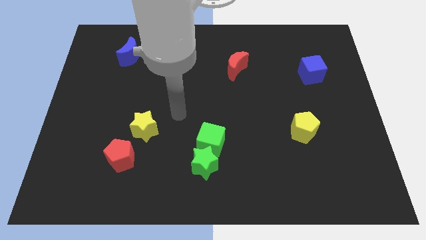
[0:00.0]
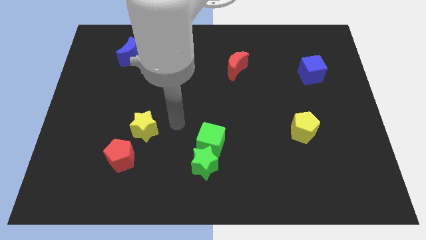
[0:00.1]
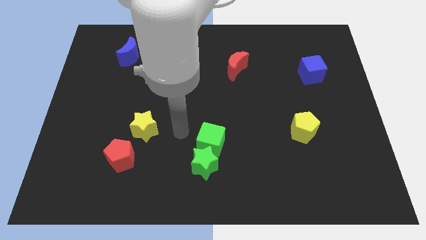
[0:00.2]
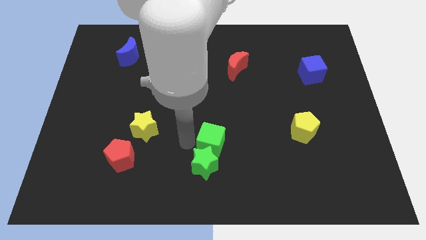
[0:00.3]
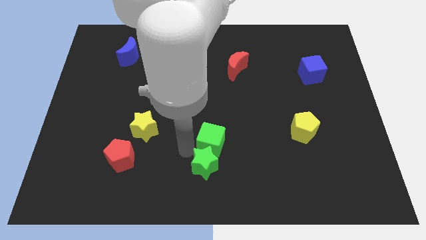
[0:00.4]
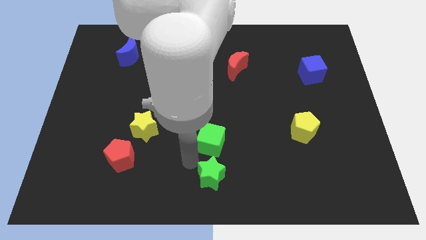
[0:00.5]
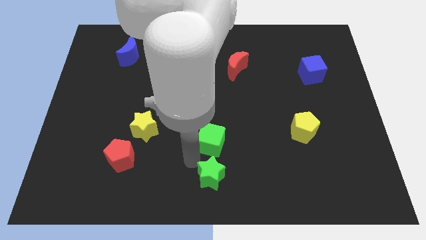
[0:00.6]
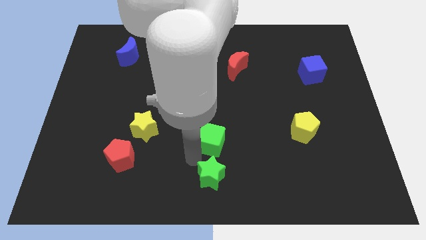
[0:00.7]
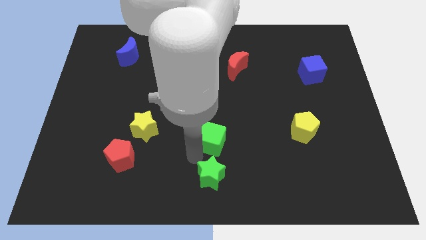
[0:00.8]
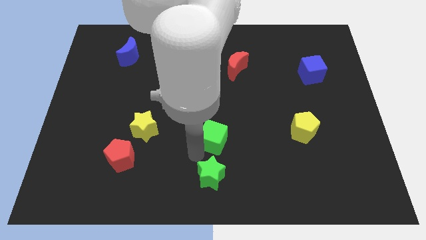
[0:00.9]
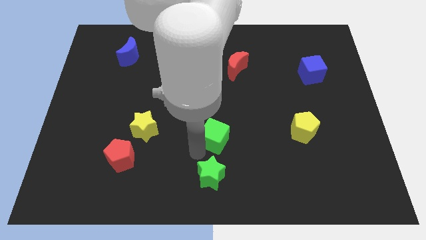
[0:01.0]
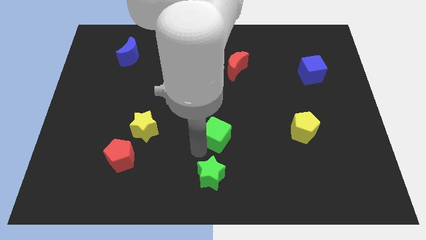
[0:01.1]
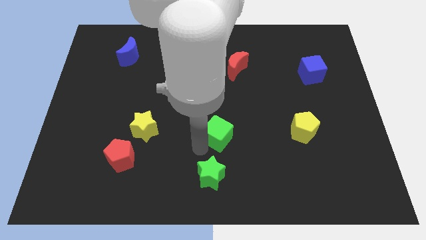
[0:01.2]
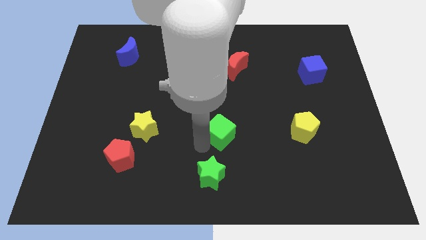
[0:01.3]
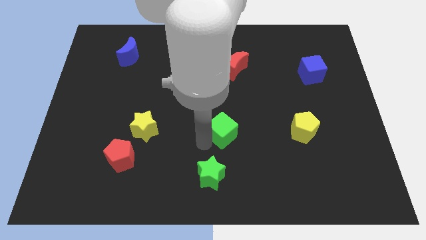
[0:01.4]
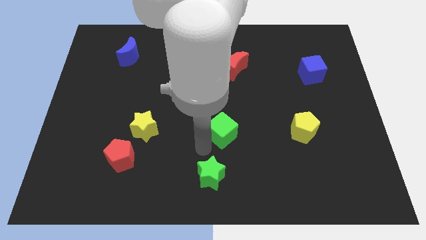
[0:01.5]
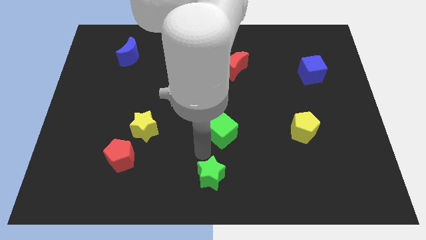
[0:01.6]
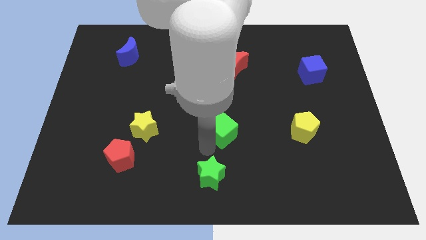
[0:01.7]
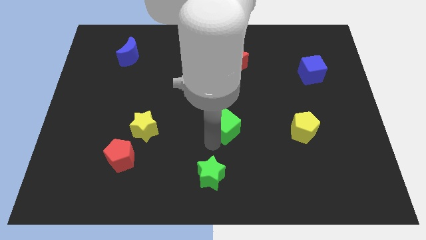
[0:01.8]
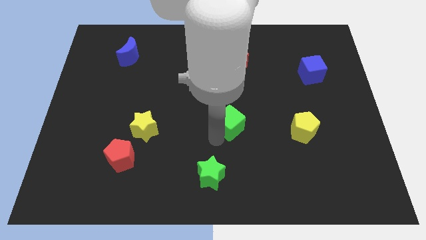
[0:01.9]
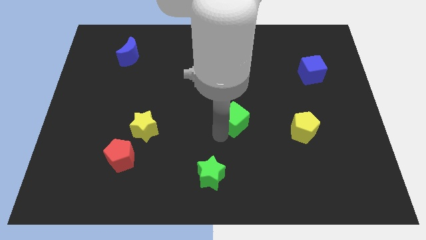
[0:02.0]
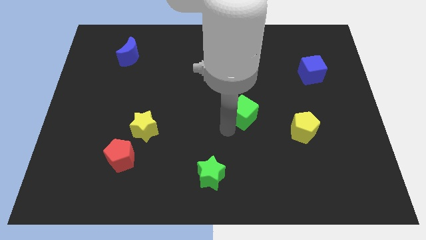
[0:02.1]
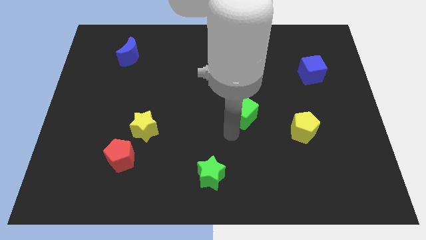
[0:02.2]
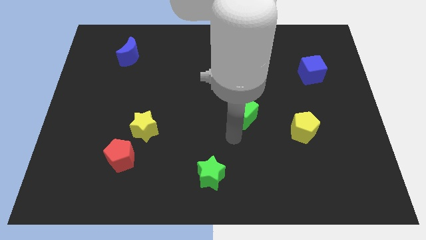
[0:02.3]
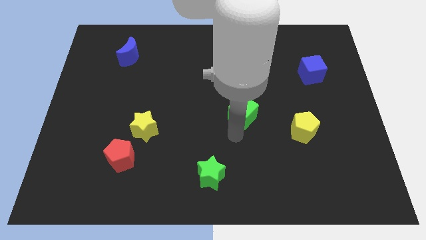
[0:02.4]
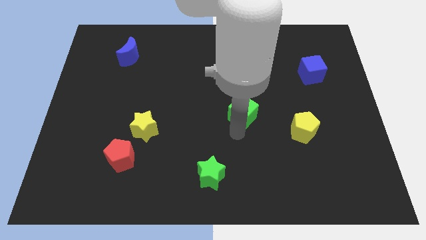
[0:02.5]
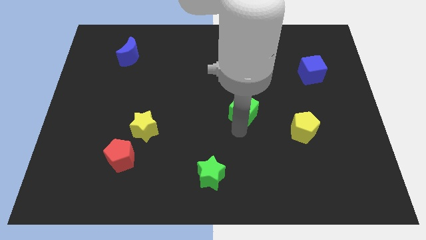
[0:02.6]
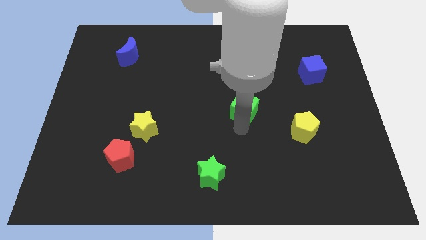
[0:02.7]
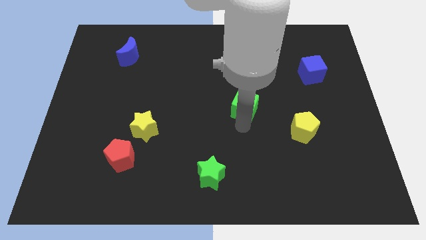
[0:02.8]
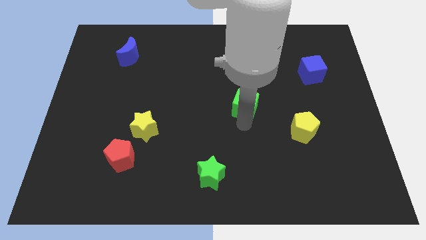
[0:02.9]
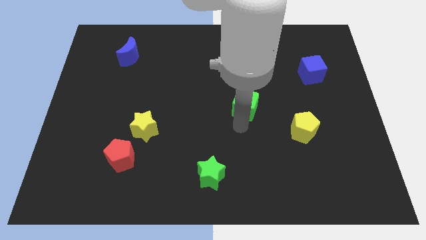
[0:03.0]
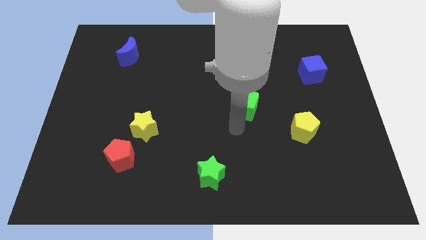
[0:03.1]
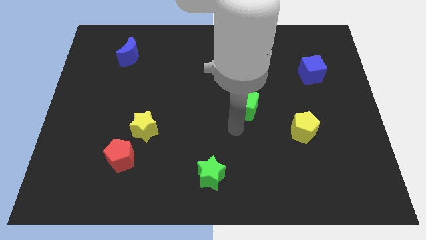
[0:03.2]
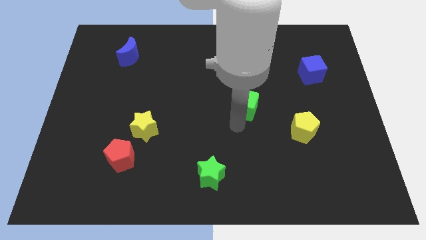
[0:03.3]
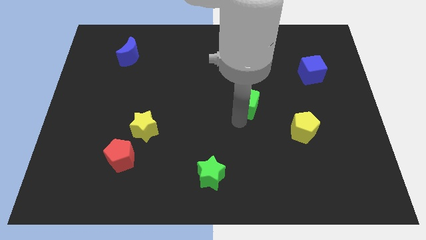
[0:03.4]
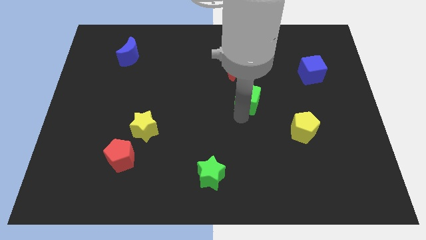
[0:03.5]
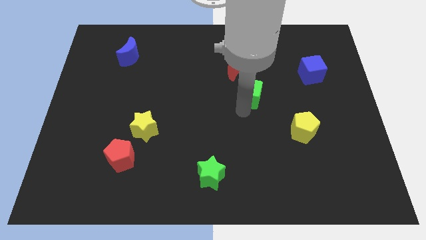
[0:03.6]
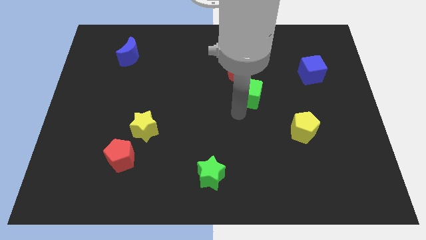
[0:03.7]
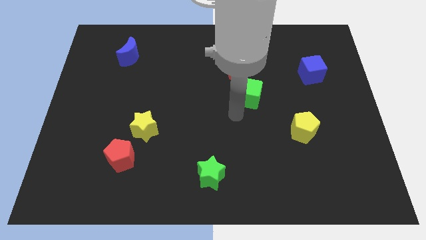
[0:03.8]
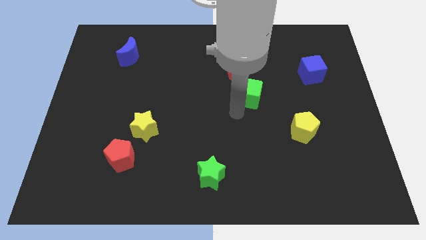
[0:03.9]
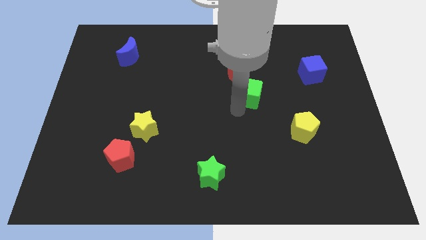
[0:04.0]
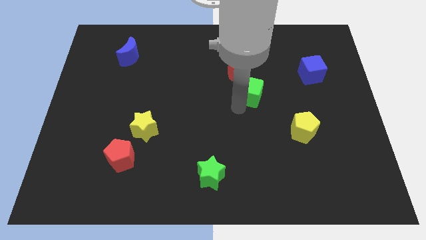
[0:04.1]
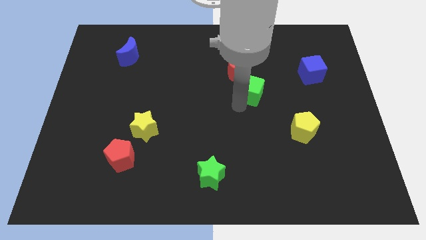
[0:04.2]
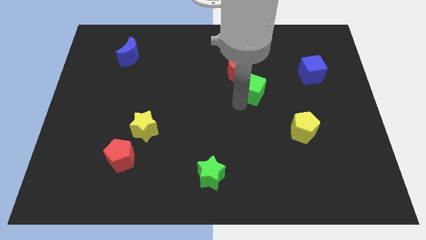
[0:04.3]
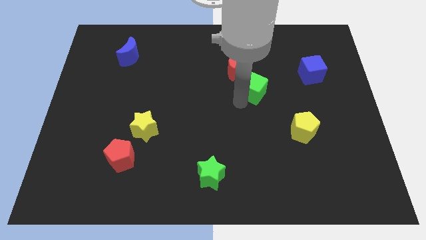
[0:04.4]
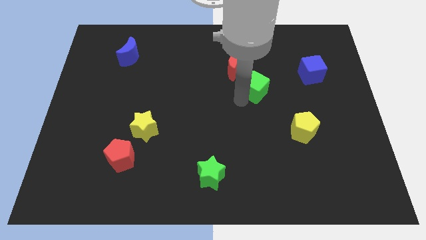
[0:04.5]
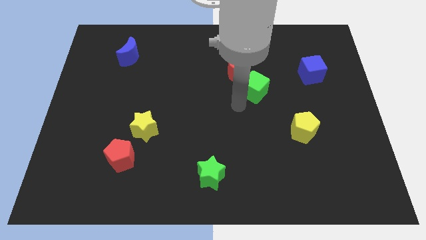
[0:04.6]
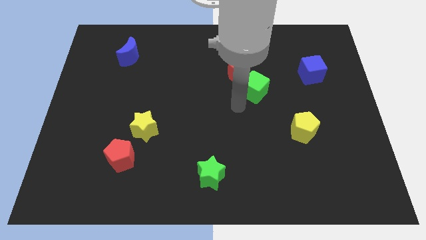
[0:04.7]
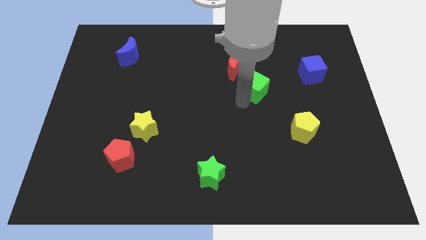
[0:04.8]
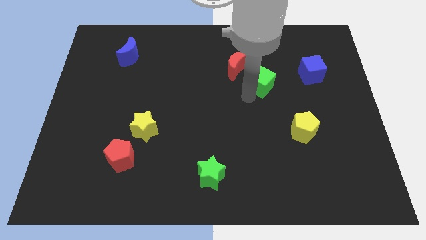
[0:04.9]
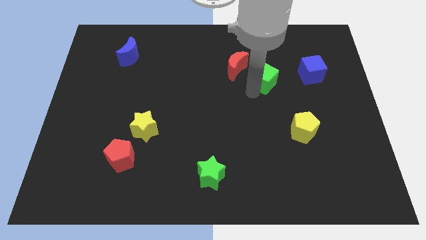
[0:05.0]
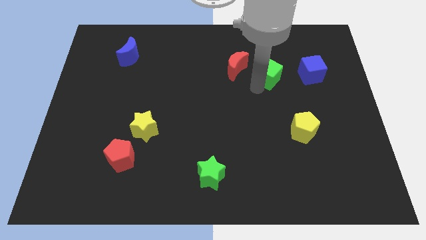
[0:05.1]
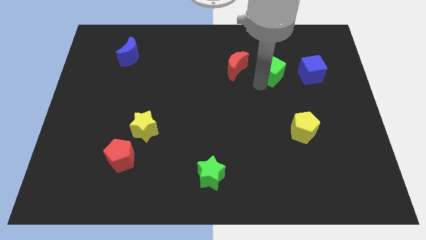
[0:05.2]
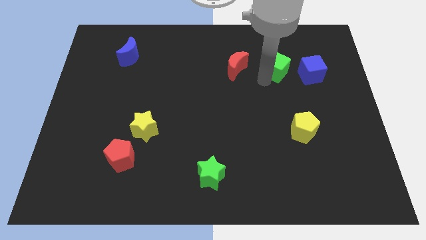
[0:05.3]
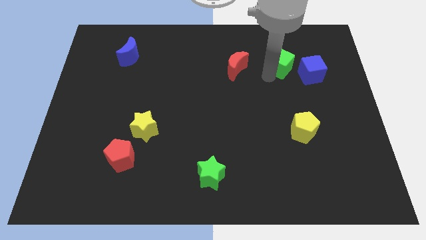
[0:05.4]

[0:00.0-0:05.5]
put the green cube to the top left of the blue cube

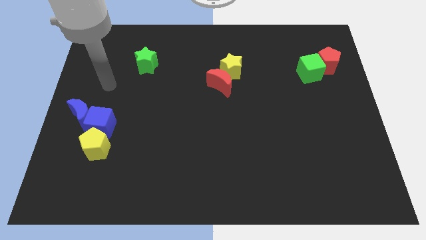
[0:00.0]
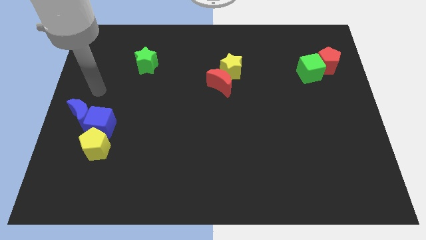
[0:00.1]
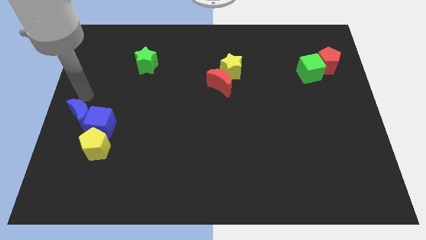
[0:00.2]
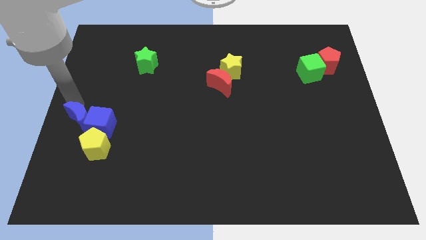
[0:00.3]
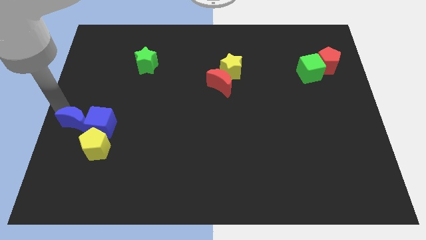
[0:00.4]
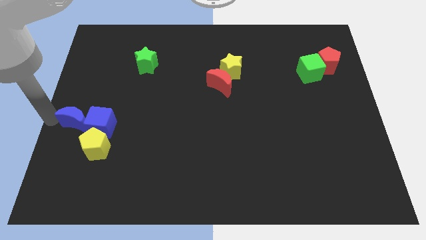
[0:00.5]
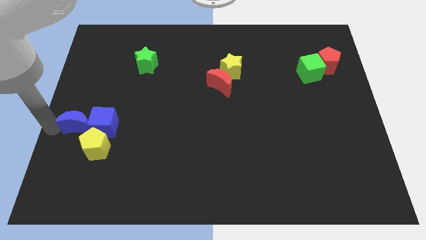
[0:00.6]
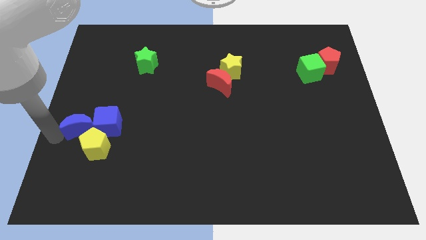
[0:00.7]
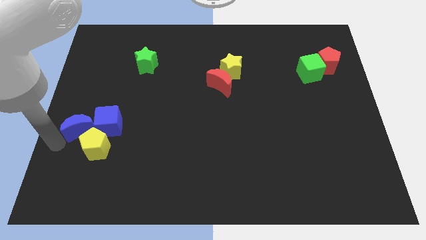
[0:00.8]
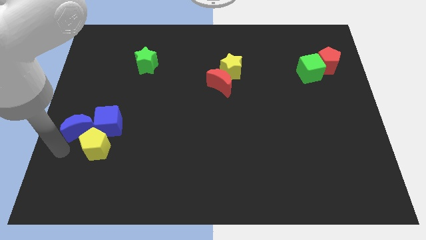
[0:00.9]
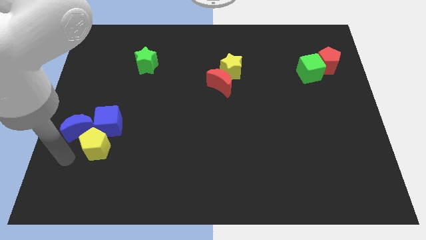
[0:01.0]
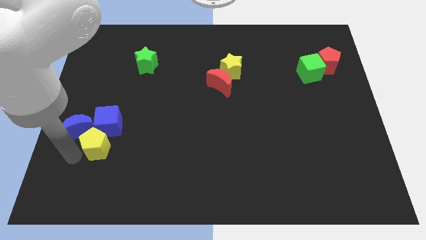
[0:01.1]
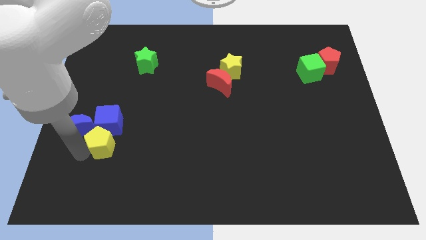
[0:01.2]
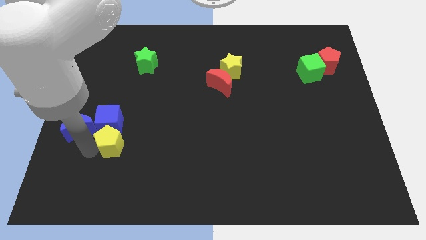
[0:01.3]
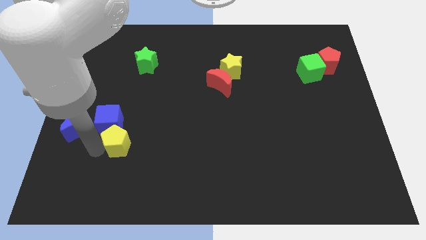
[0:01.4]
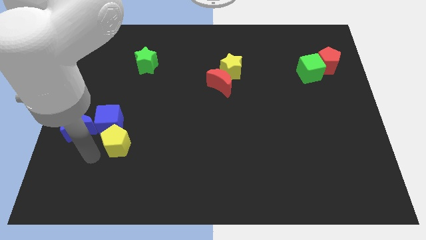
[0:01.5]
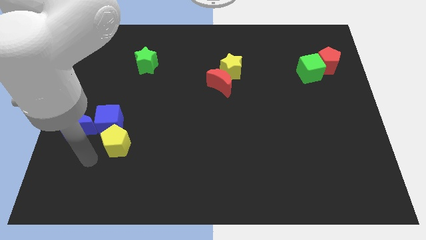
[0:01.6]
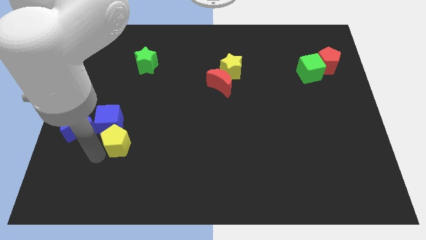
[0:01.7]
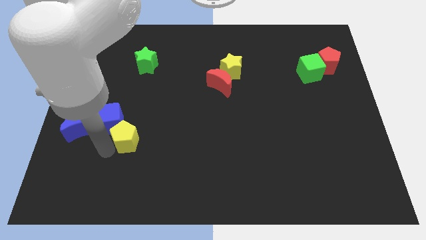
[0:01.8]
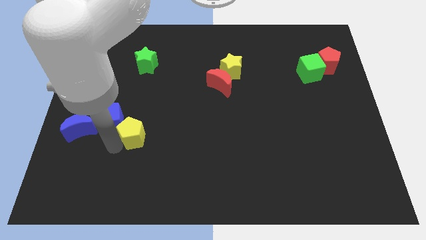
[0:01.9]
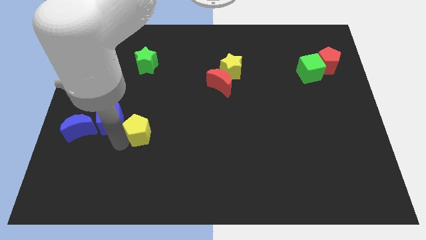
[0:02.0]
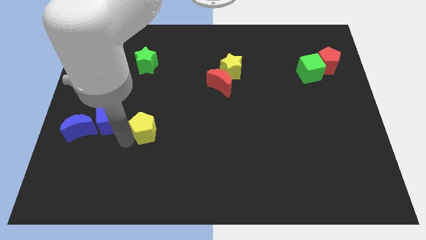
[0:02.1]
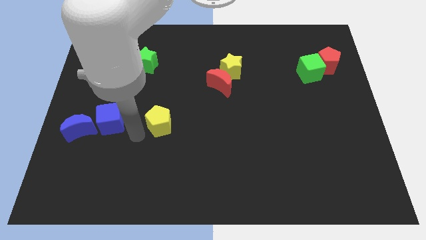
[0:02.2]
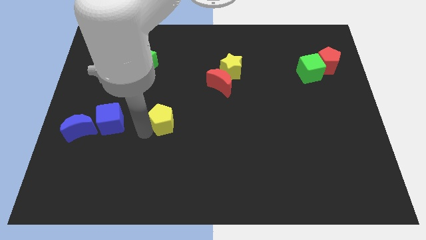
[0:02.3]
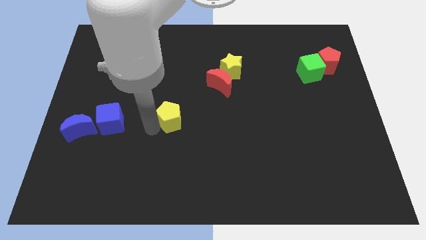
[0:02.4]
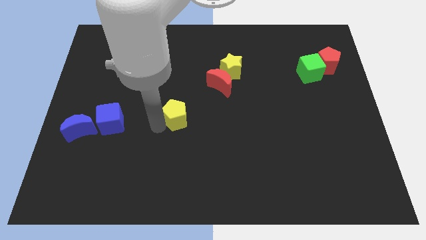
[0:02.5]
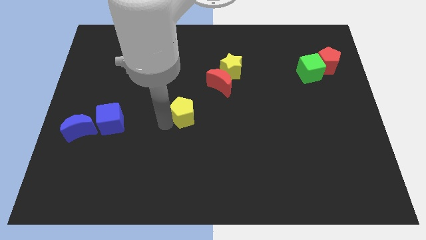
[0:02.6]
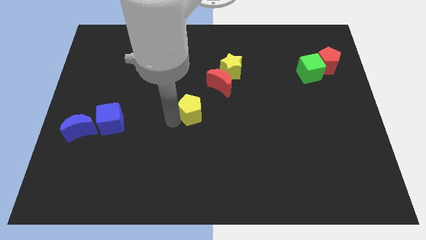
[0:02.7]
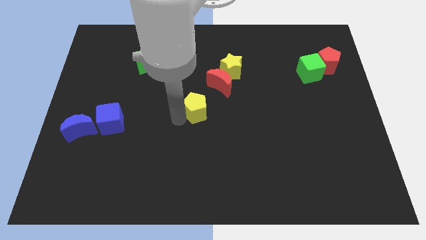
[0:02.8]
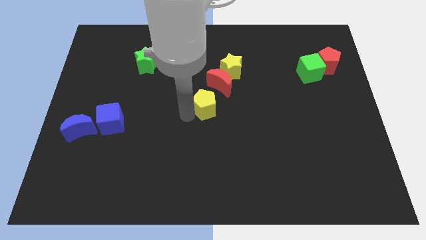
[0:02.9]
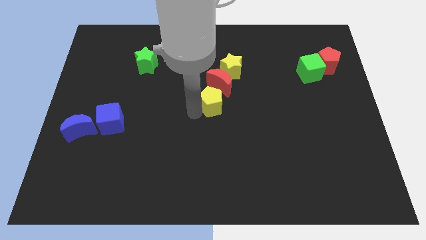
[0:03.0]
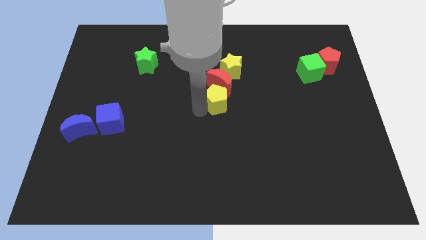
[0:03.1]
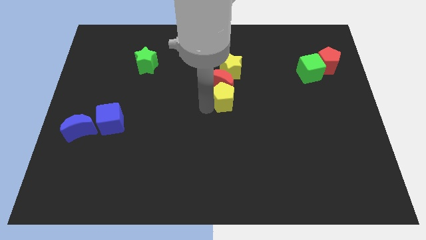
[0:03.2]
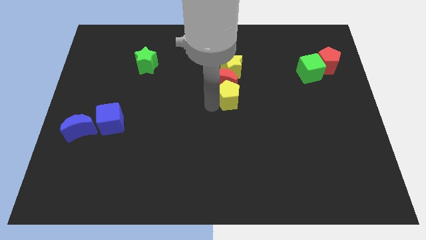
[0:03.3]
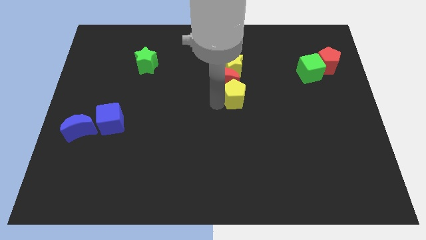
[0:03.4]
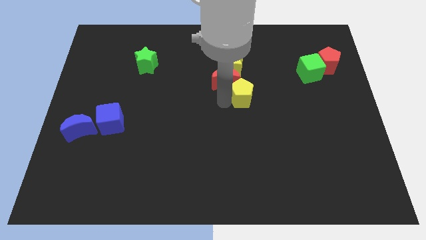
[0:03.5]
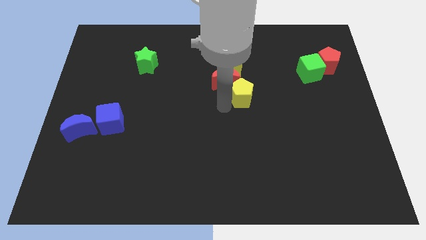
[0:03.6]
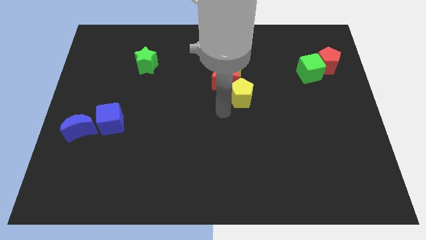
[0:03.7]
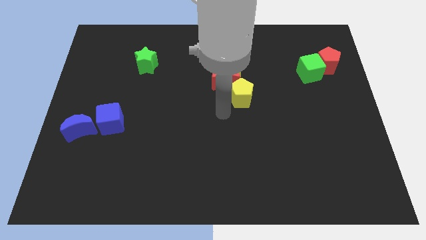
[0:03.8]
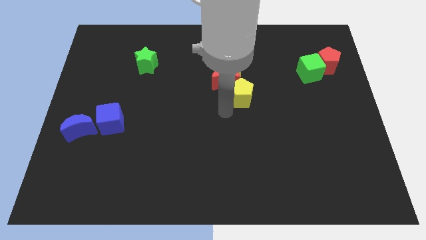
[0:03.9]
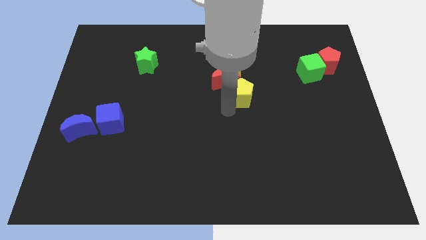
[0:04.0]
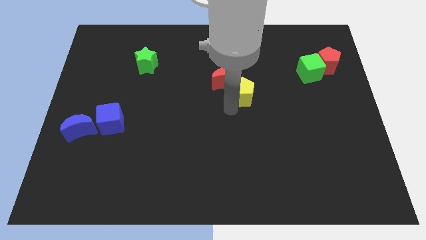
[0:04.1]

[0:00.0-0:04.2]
push the yellow pentagon to the bottom right side of the yellow star
